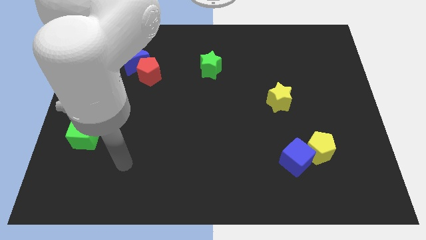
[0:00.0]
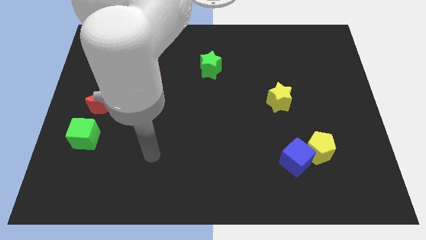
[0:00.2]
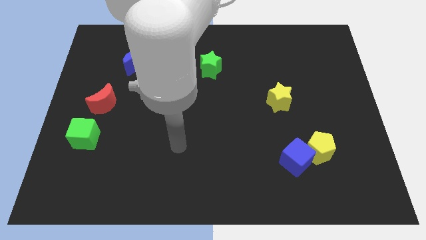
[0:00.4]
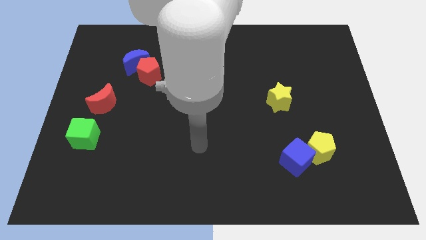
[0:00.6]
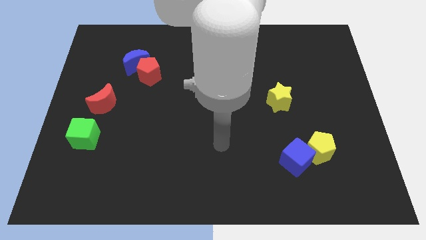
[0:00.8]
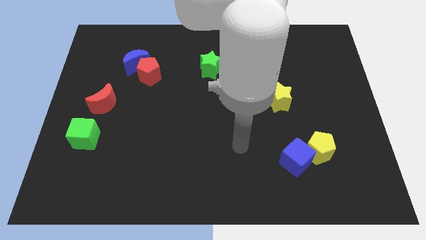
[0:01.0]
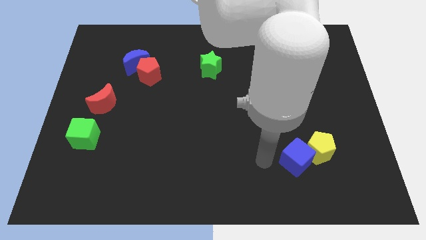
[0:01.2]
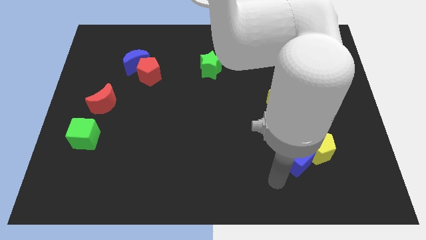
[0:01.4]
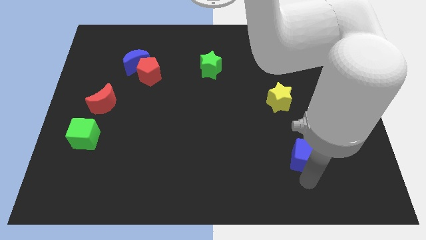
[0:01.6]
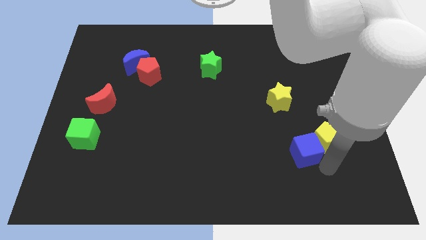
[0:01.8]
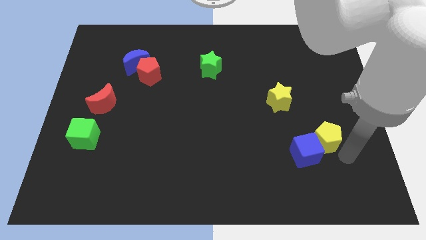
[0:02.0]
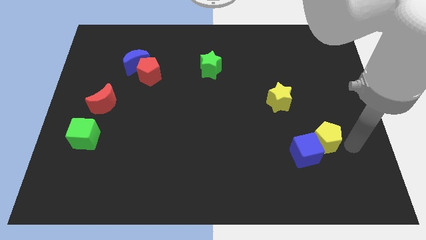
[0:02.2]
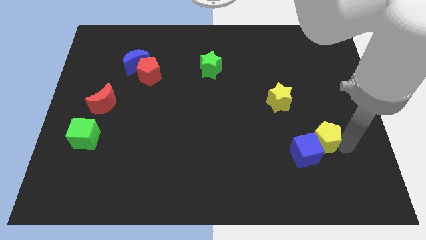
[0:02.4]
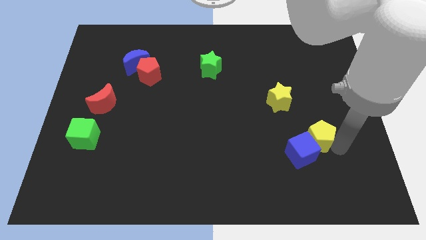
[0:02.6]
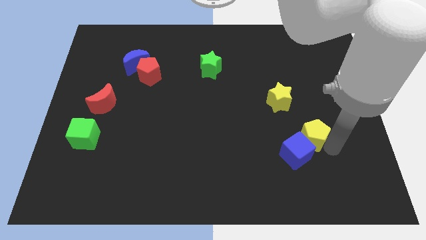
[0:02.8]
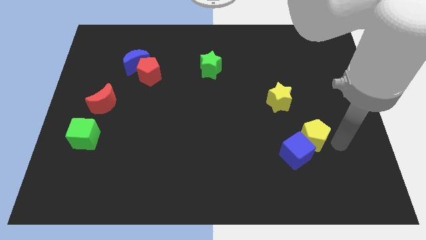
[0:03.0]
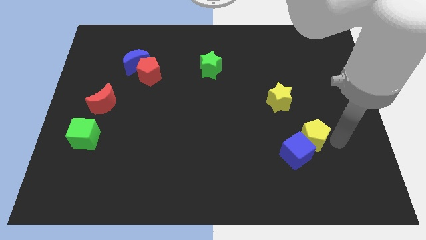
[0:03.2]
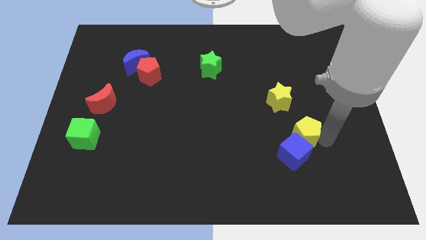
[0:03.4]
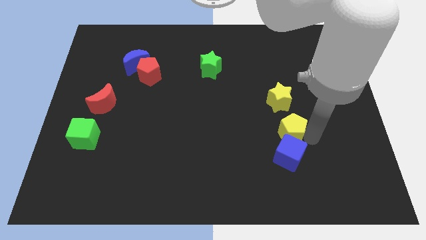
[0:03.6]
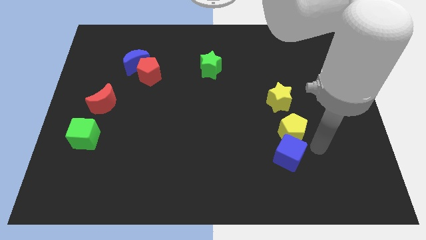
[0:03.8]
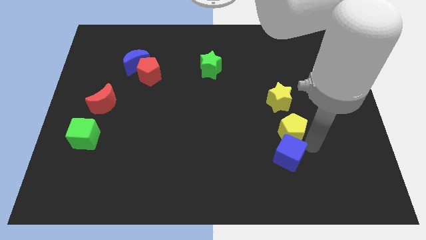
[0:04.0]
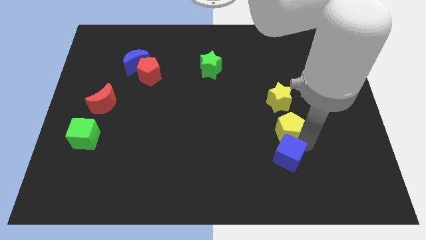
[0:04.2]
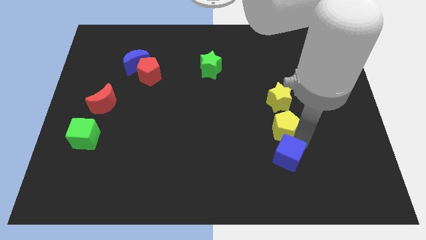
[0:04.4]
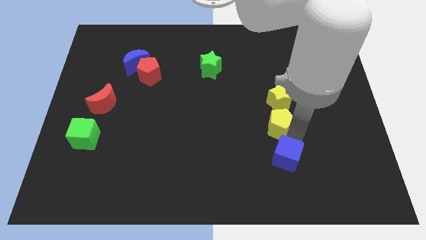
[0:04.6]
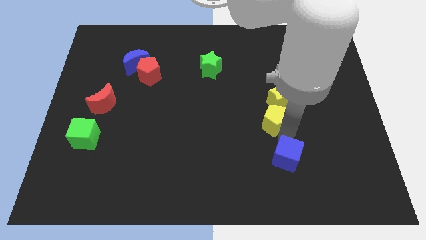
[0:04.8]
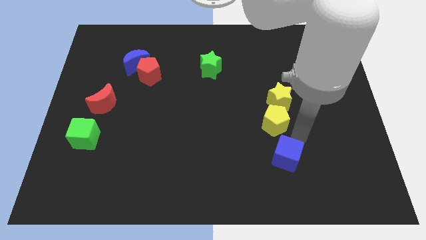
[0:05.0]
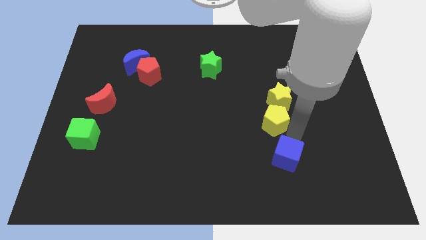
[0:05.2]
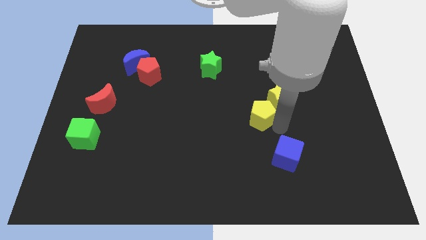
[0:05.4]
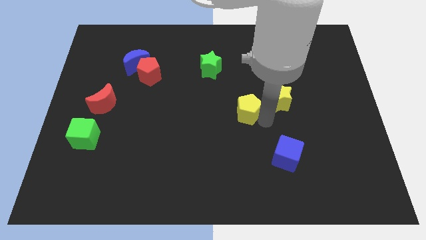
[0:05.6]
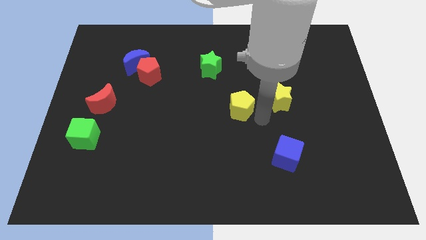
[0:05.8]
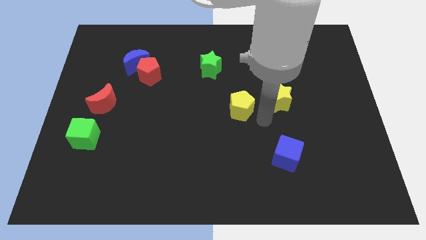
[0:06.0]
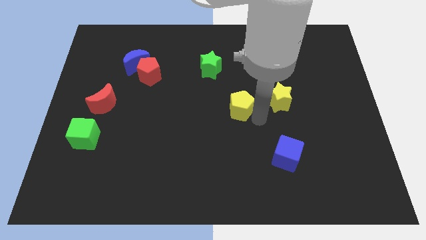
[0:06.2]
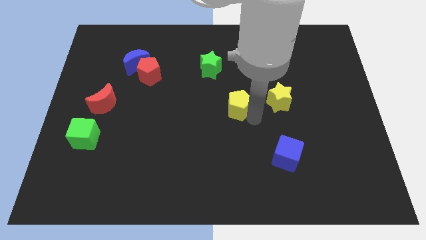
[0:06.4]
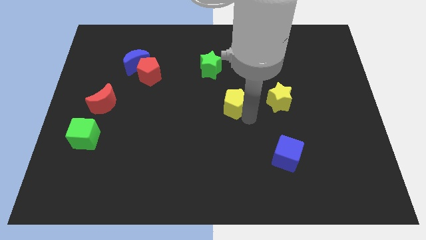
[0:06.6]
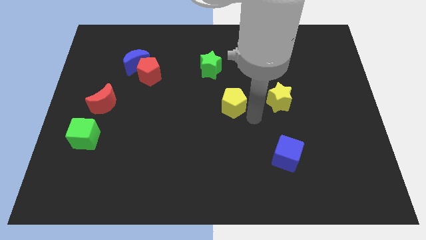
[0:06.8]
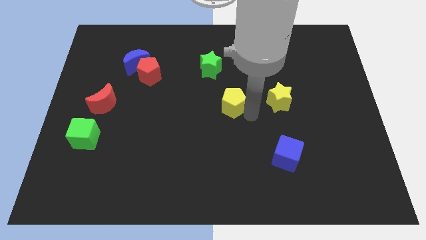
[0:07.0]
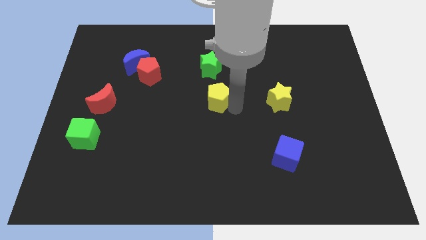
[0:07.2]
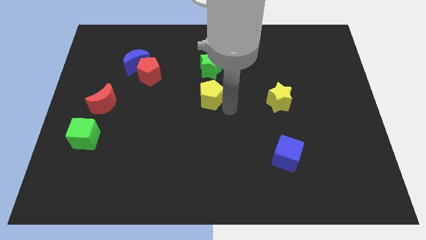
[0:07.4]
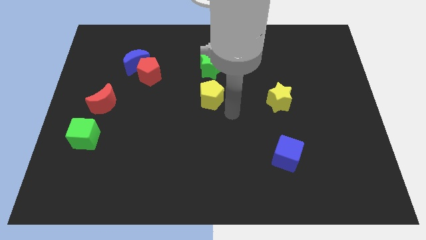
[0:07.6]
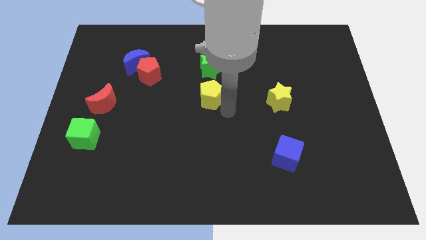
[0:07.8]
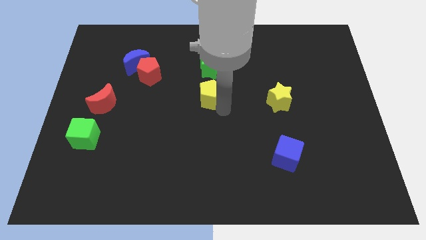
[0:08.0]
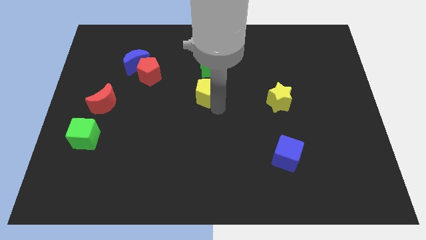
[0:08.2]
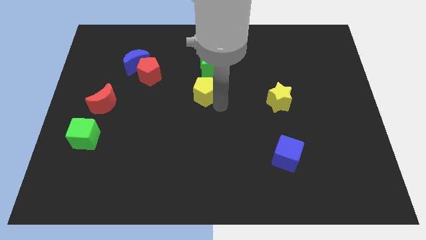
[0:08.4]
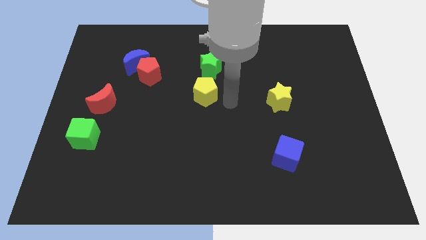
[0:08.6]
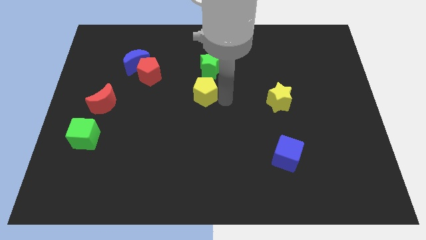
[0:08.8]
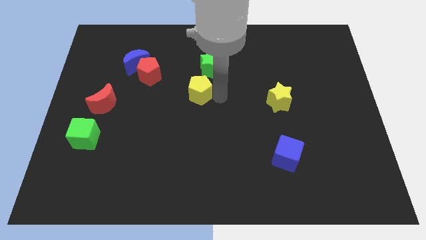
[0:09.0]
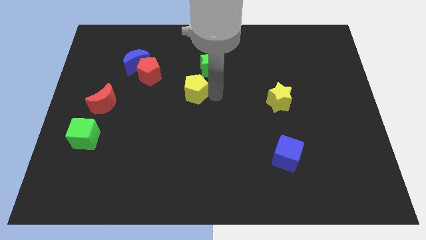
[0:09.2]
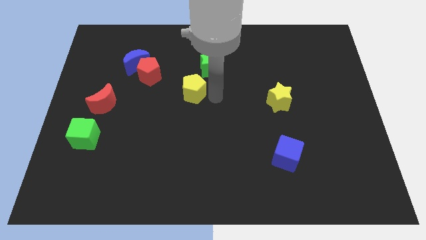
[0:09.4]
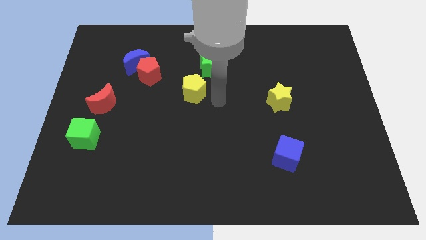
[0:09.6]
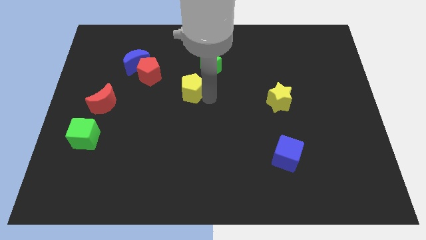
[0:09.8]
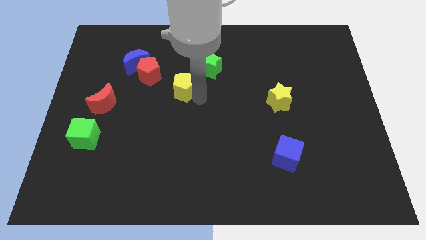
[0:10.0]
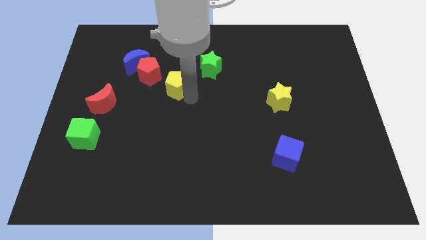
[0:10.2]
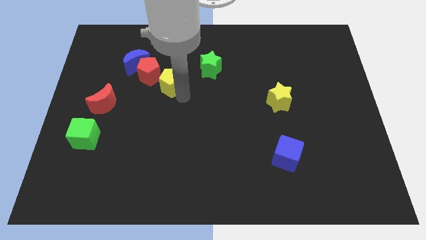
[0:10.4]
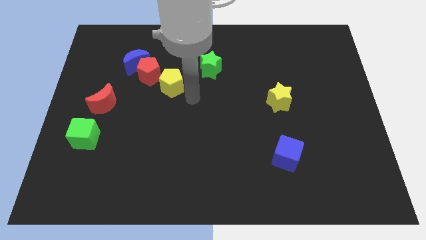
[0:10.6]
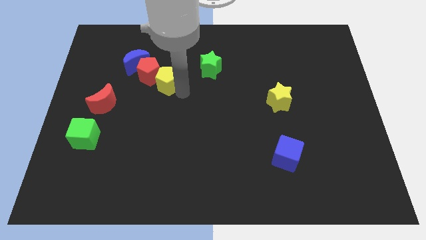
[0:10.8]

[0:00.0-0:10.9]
slide the yellow pentagon towards the red pentagon
